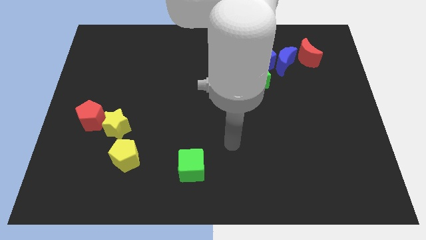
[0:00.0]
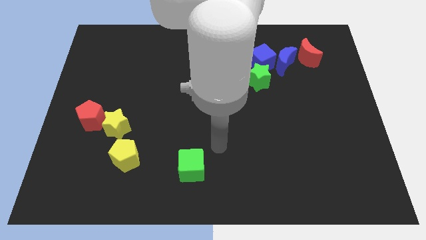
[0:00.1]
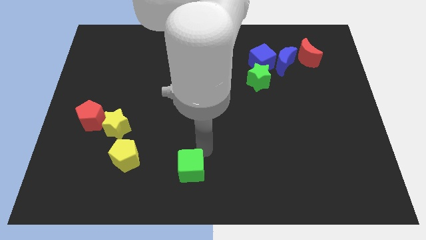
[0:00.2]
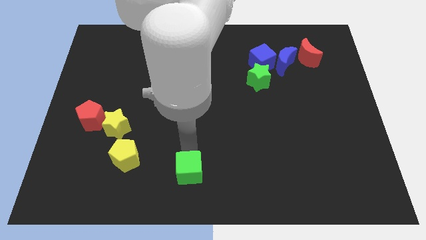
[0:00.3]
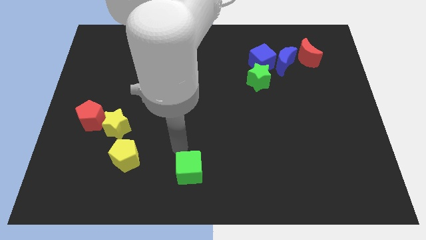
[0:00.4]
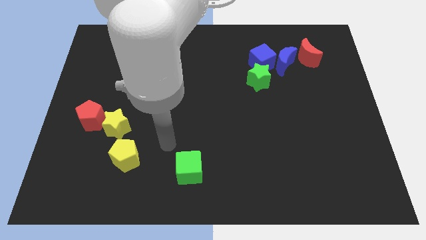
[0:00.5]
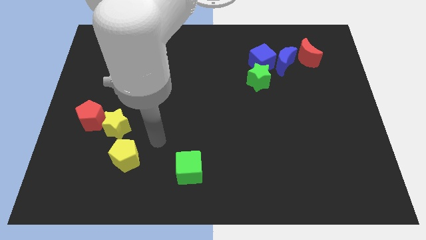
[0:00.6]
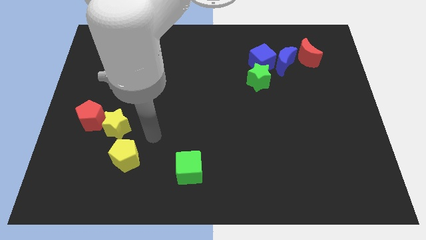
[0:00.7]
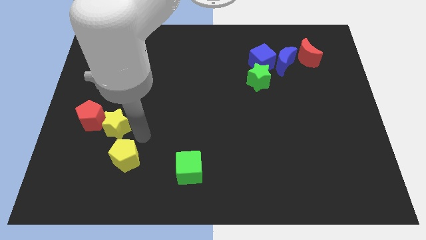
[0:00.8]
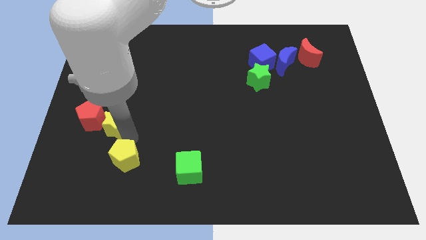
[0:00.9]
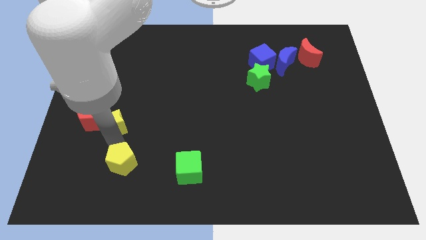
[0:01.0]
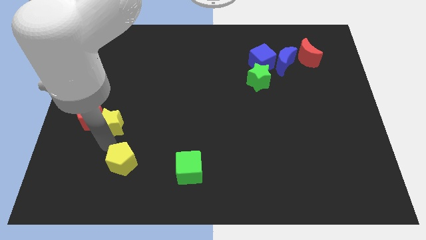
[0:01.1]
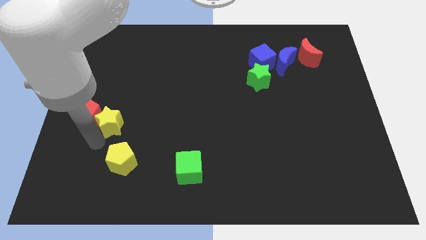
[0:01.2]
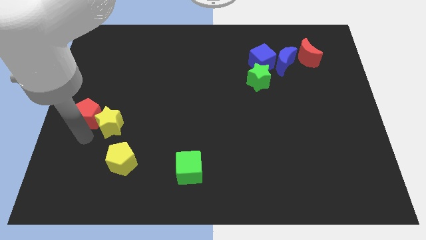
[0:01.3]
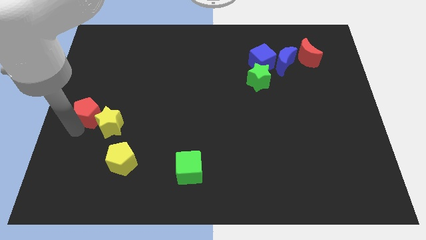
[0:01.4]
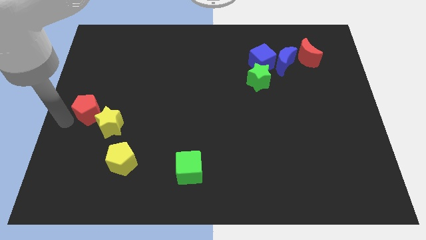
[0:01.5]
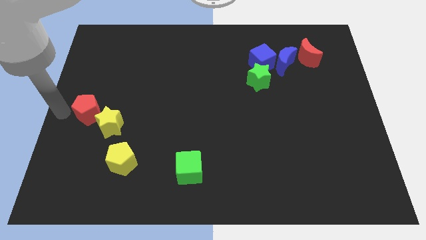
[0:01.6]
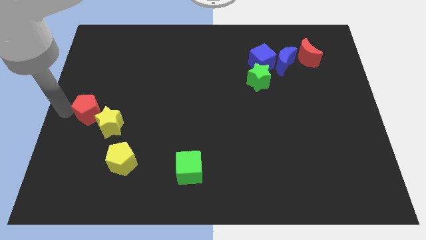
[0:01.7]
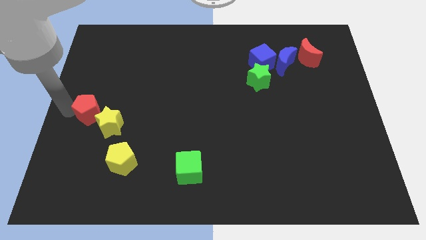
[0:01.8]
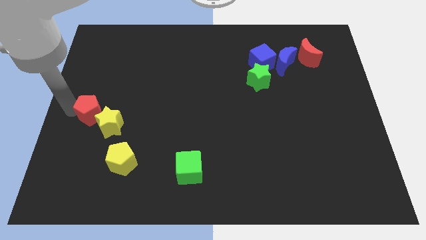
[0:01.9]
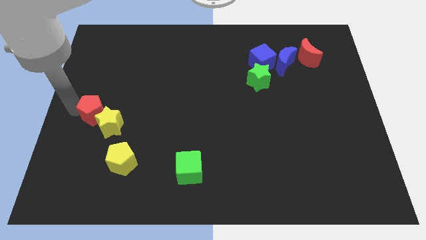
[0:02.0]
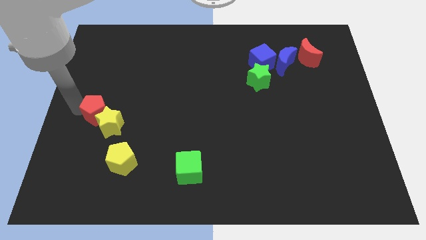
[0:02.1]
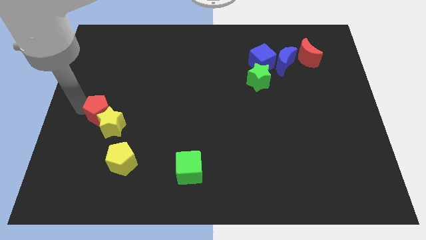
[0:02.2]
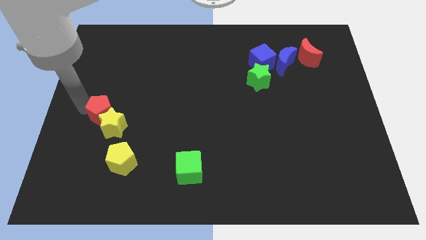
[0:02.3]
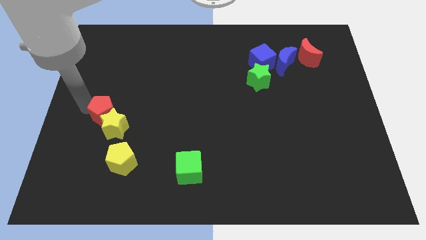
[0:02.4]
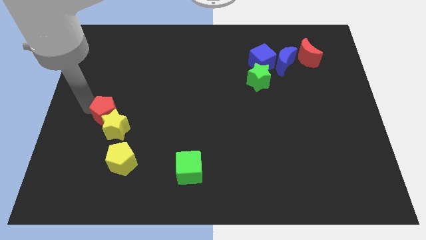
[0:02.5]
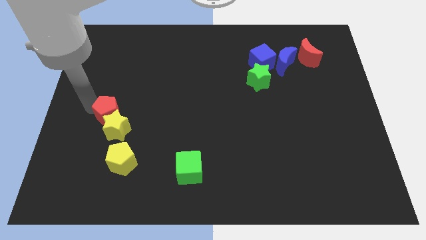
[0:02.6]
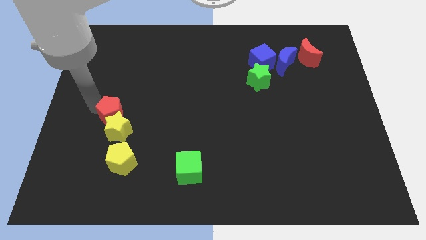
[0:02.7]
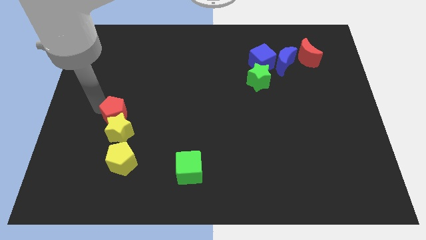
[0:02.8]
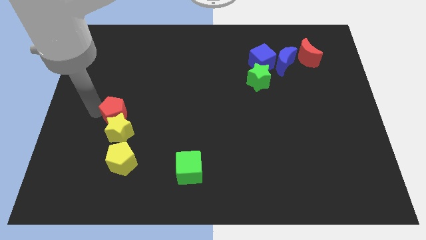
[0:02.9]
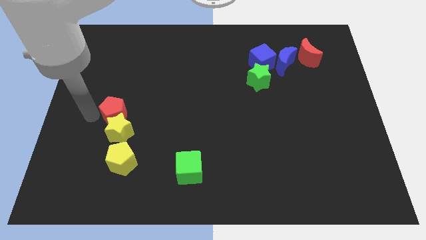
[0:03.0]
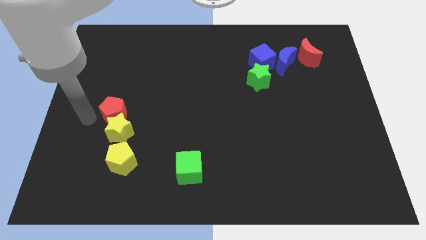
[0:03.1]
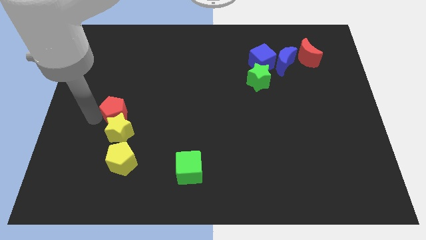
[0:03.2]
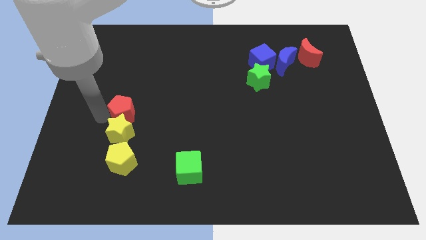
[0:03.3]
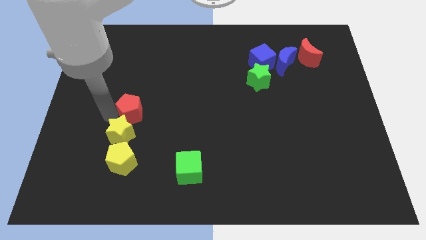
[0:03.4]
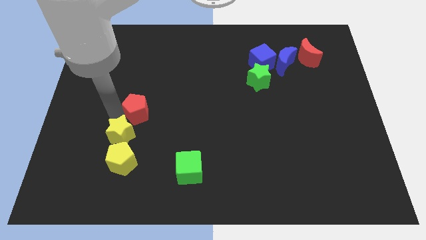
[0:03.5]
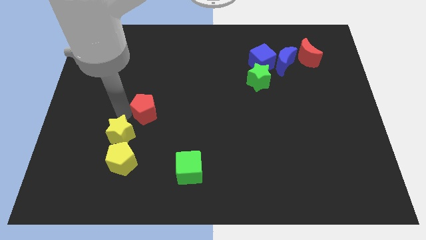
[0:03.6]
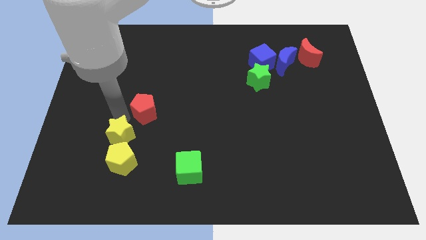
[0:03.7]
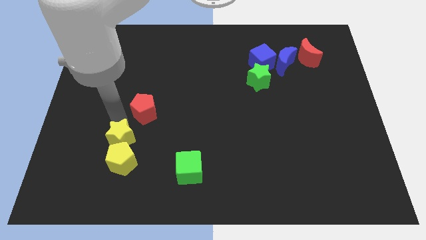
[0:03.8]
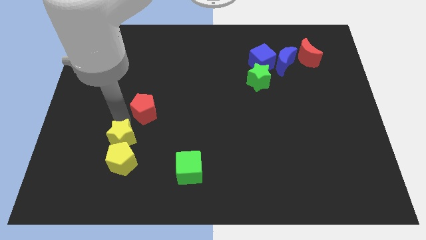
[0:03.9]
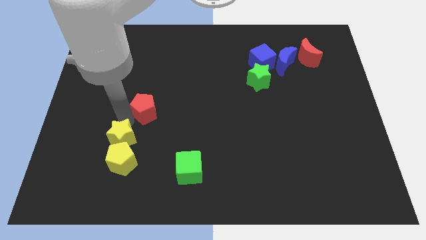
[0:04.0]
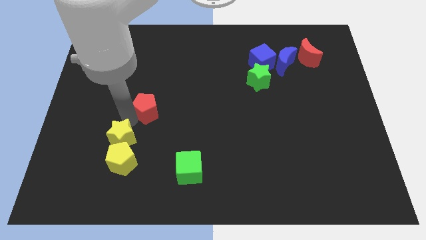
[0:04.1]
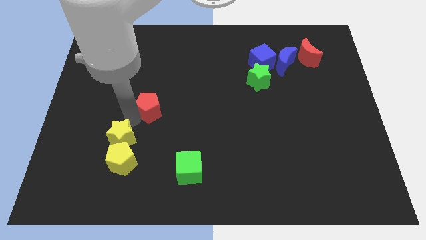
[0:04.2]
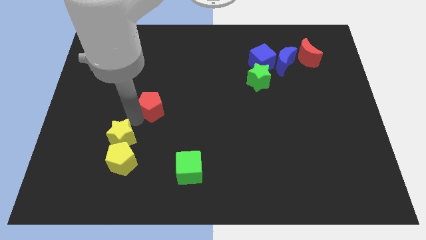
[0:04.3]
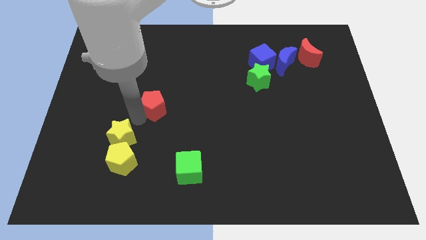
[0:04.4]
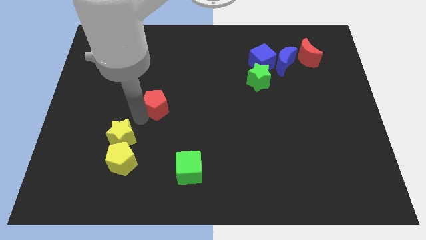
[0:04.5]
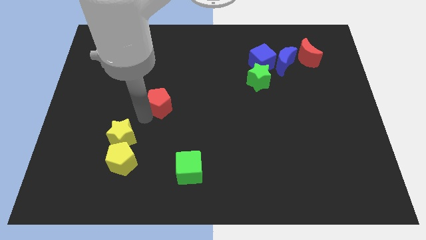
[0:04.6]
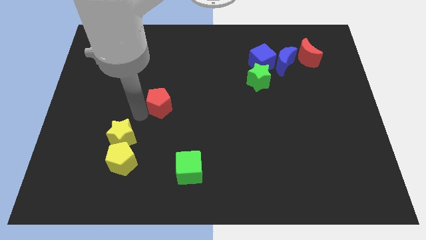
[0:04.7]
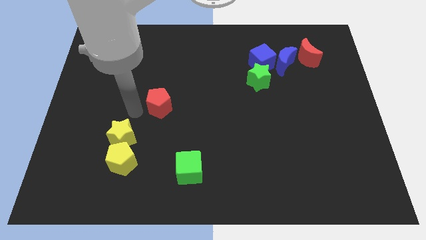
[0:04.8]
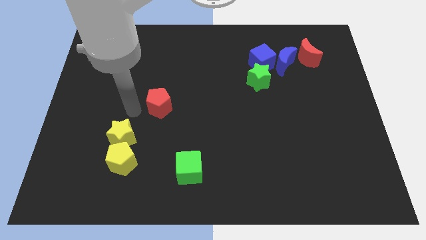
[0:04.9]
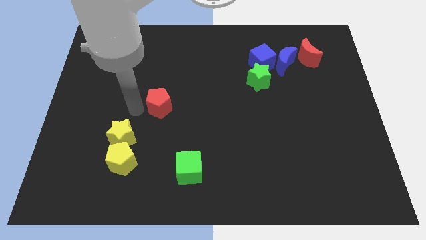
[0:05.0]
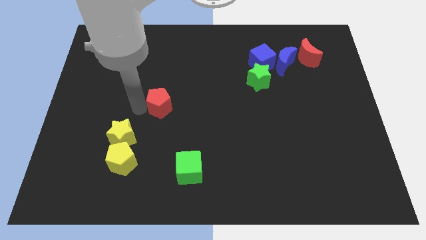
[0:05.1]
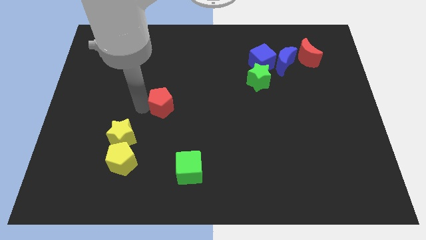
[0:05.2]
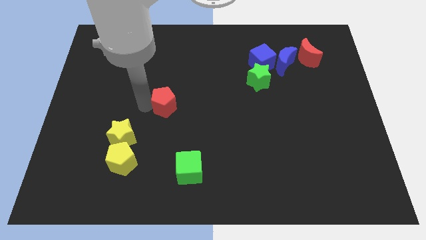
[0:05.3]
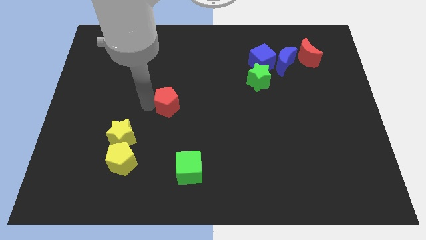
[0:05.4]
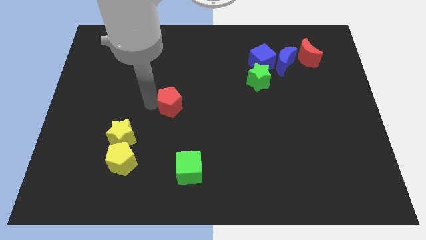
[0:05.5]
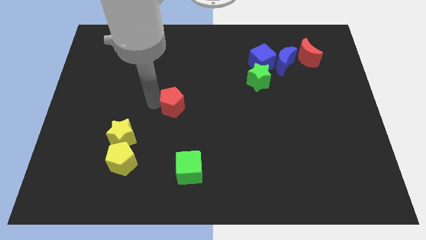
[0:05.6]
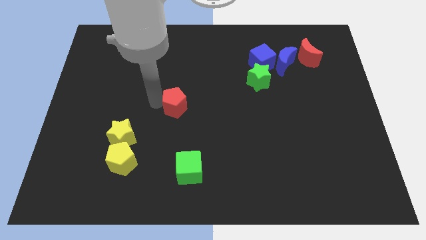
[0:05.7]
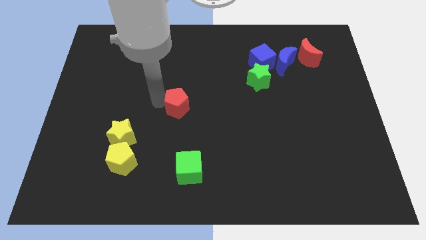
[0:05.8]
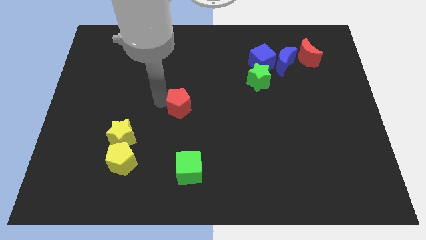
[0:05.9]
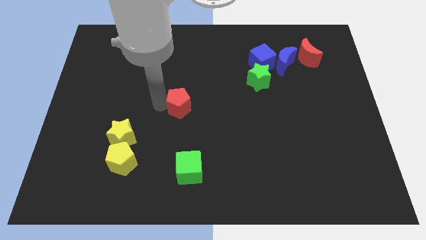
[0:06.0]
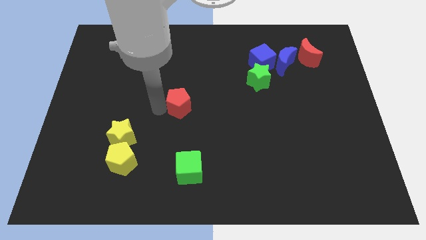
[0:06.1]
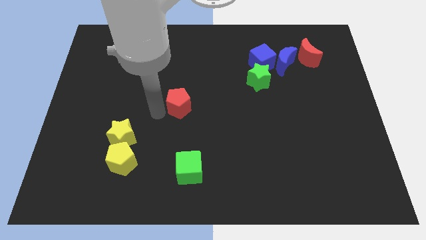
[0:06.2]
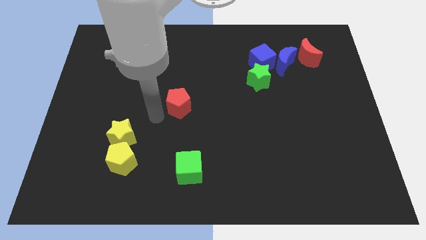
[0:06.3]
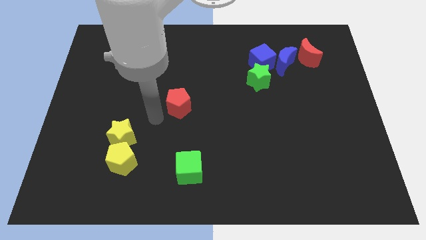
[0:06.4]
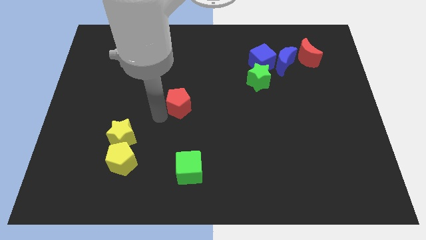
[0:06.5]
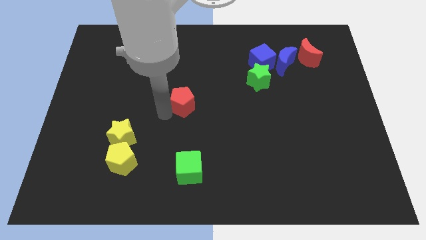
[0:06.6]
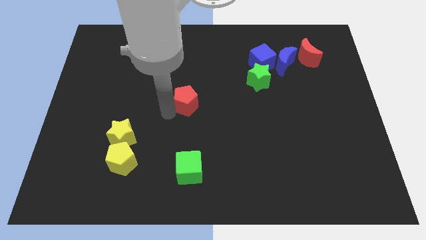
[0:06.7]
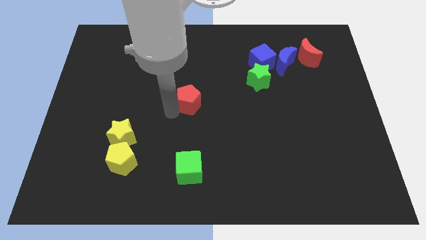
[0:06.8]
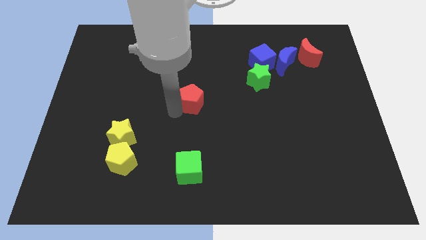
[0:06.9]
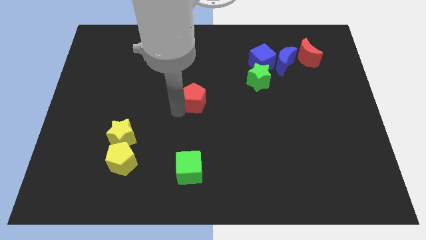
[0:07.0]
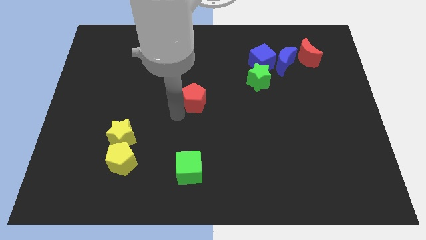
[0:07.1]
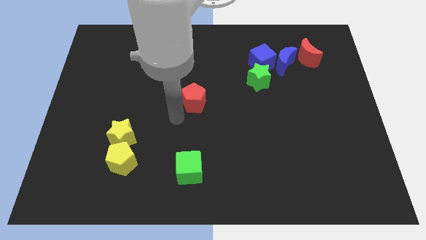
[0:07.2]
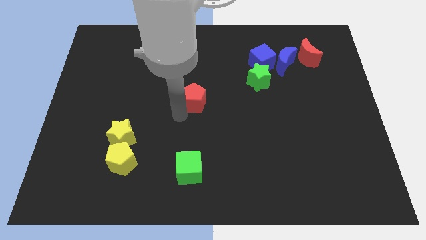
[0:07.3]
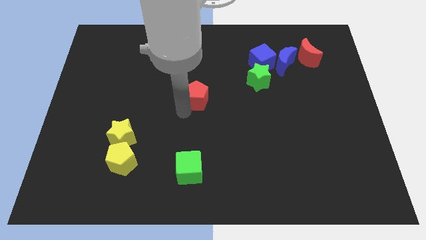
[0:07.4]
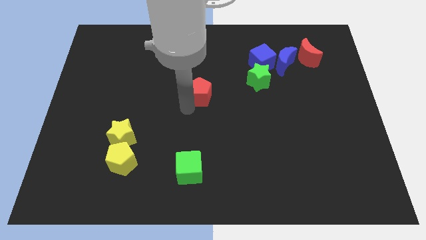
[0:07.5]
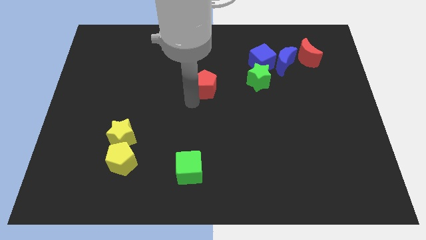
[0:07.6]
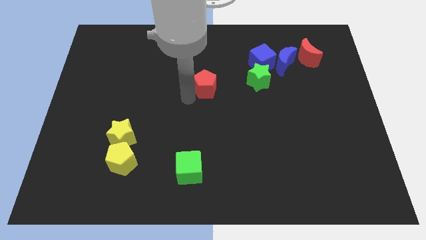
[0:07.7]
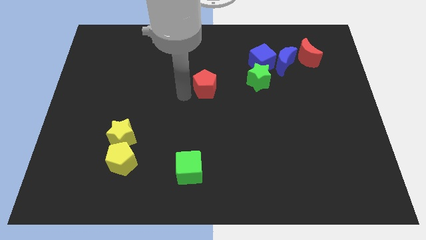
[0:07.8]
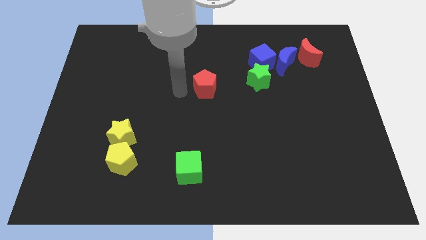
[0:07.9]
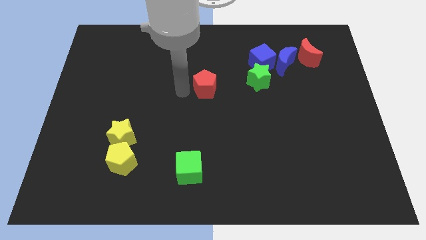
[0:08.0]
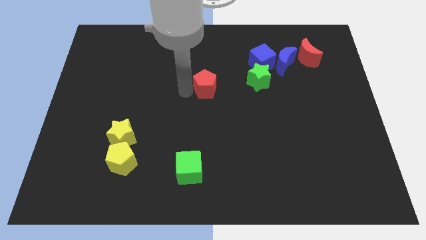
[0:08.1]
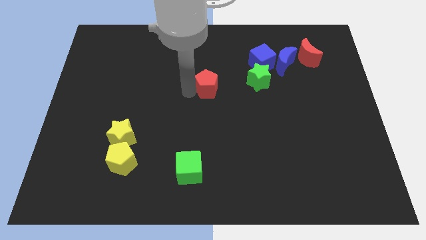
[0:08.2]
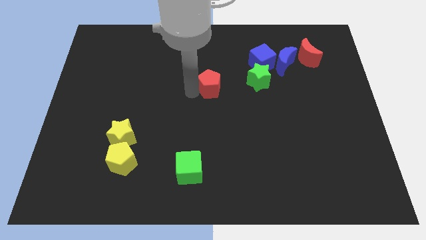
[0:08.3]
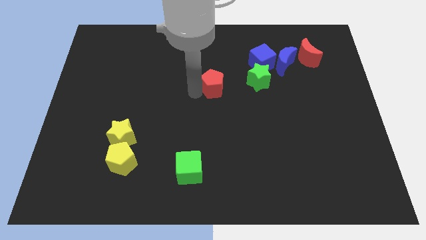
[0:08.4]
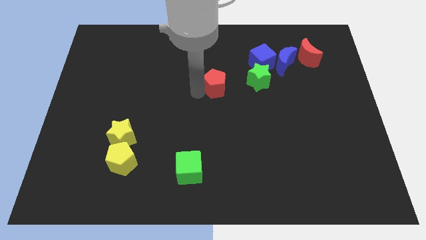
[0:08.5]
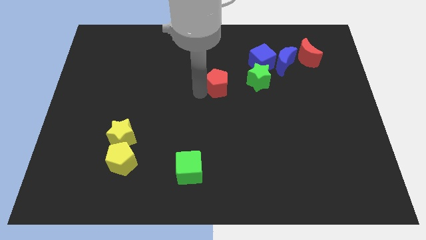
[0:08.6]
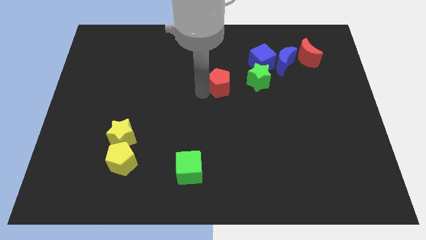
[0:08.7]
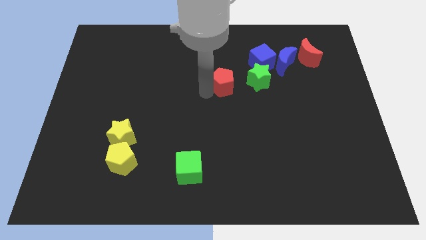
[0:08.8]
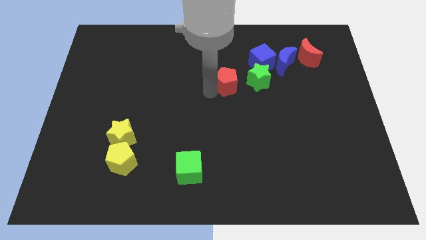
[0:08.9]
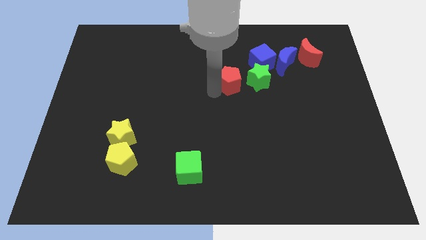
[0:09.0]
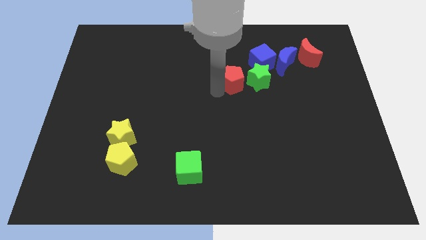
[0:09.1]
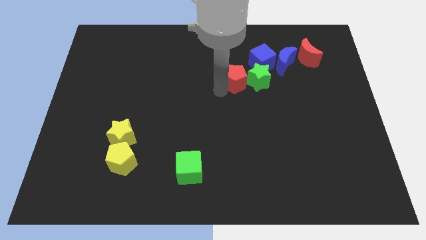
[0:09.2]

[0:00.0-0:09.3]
move the red pentagon to the green star
